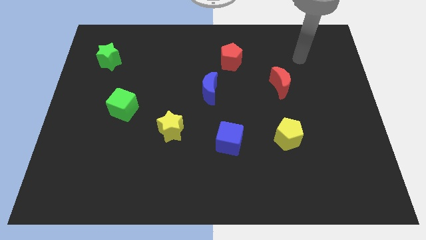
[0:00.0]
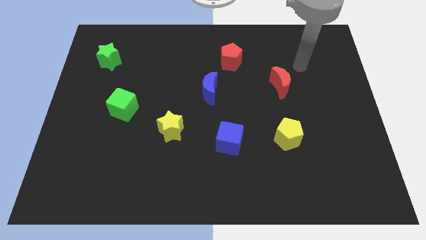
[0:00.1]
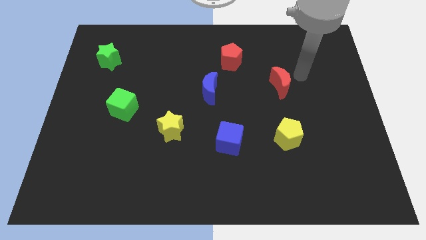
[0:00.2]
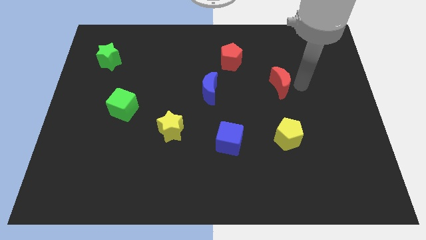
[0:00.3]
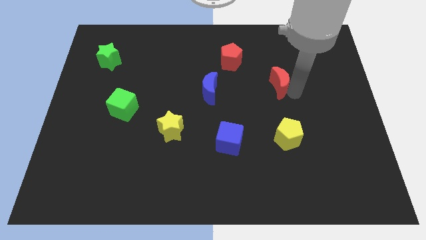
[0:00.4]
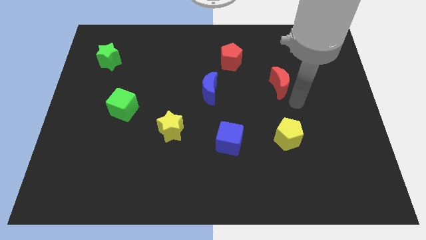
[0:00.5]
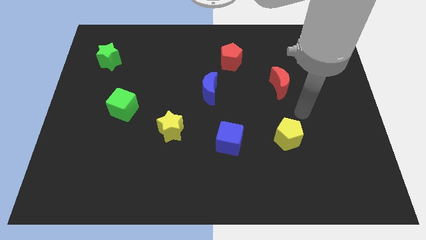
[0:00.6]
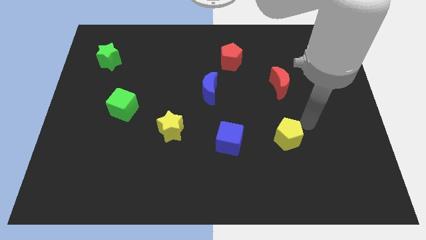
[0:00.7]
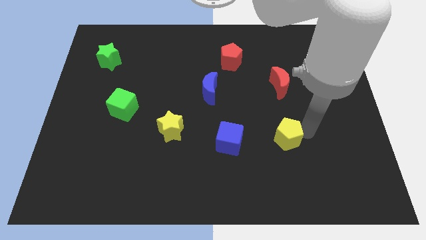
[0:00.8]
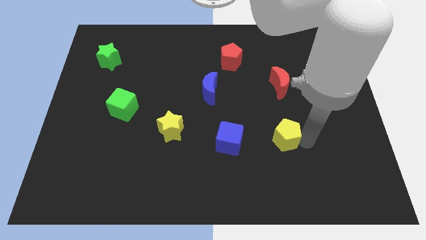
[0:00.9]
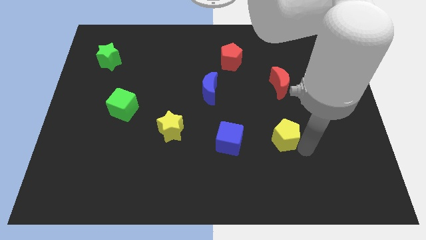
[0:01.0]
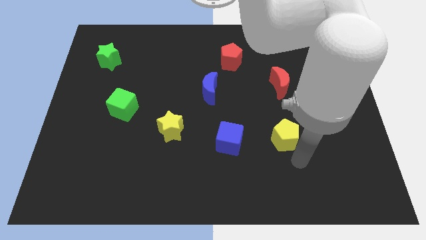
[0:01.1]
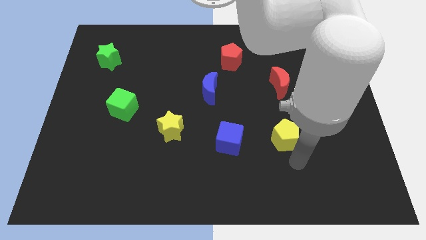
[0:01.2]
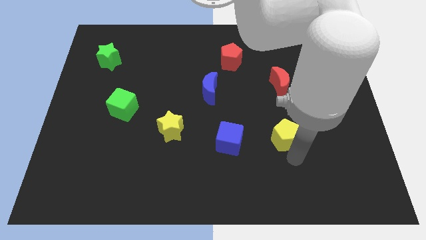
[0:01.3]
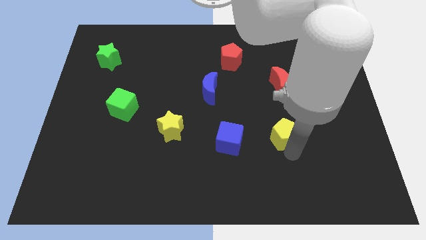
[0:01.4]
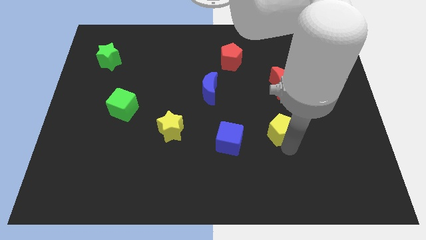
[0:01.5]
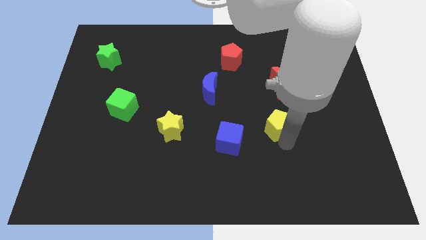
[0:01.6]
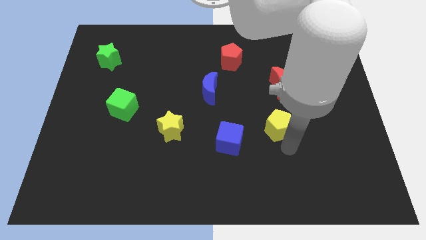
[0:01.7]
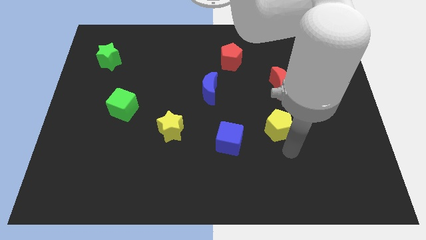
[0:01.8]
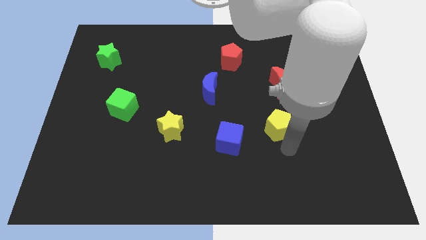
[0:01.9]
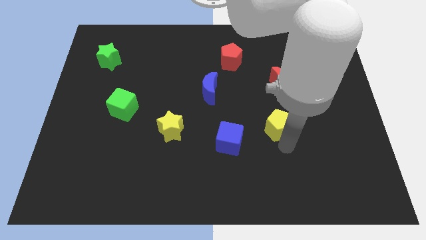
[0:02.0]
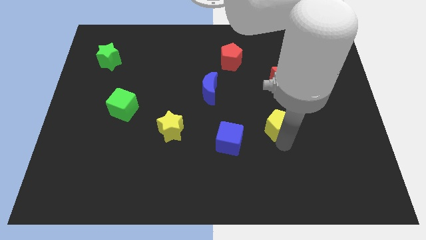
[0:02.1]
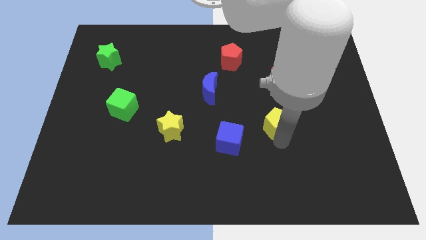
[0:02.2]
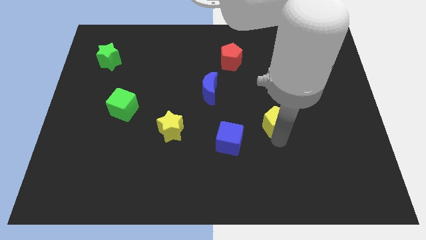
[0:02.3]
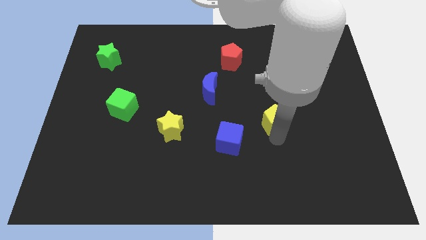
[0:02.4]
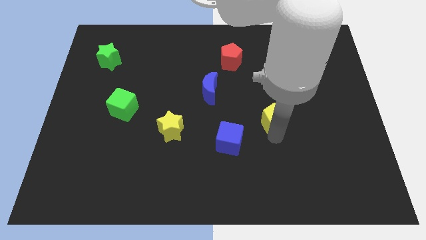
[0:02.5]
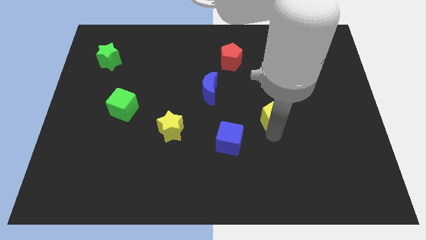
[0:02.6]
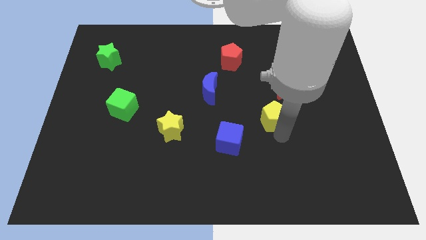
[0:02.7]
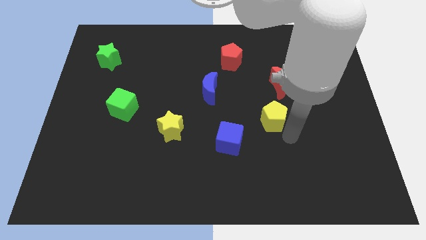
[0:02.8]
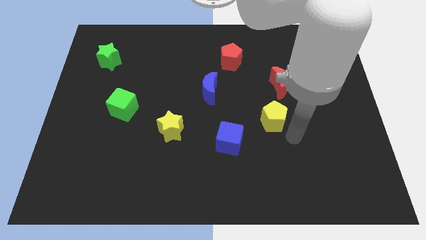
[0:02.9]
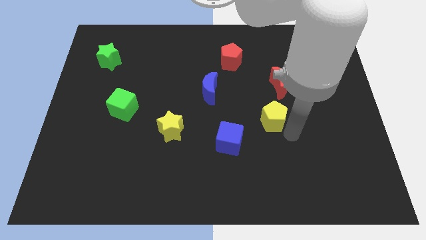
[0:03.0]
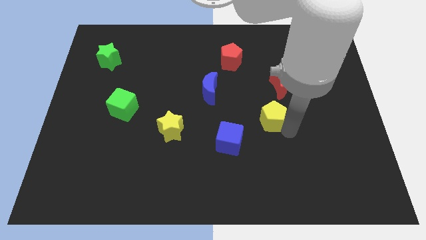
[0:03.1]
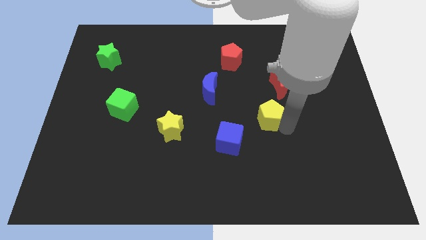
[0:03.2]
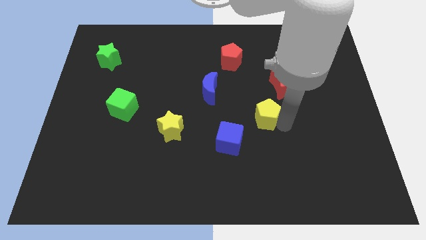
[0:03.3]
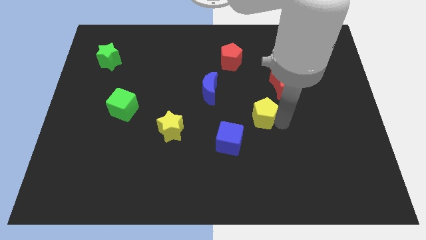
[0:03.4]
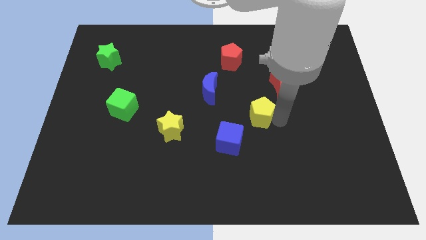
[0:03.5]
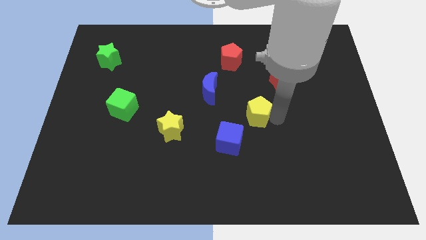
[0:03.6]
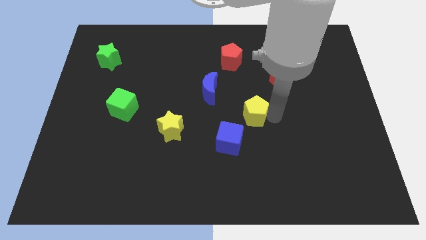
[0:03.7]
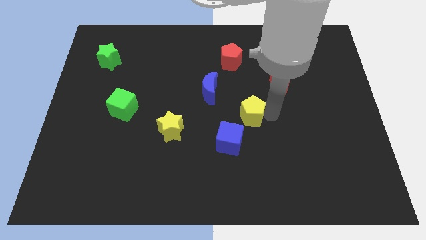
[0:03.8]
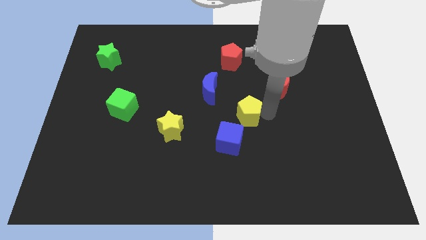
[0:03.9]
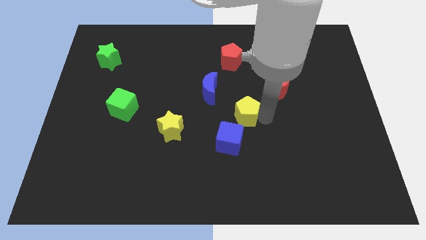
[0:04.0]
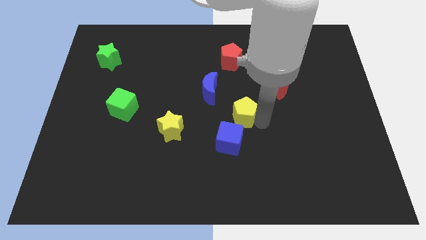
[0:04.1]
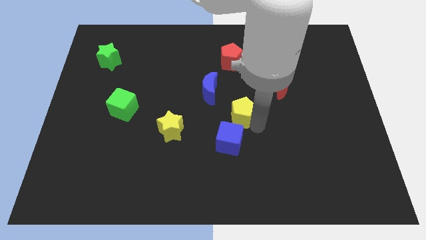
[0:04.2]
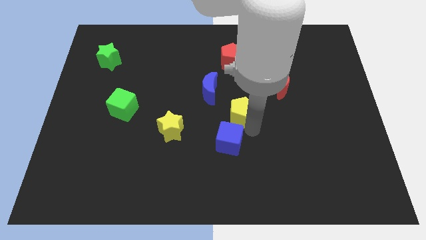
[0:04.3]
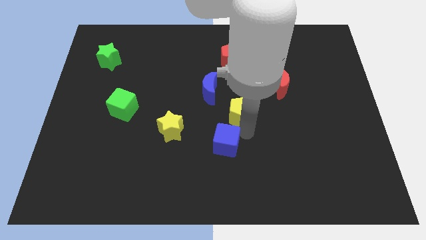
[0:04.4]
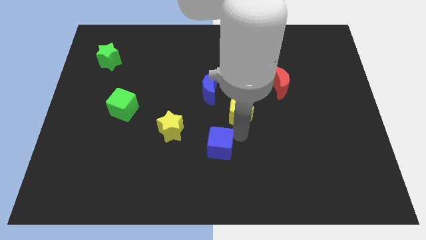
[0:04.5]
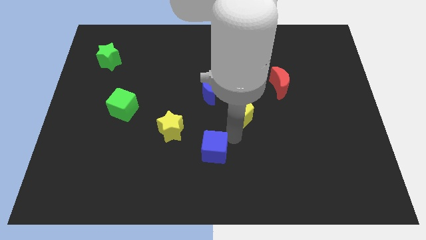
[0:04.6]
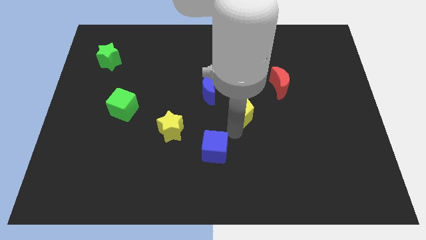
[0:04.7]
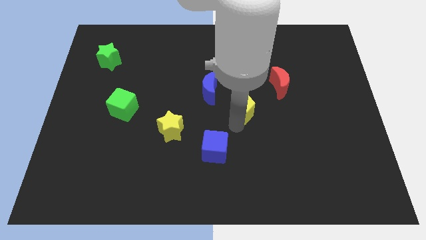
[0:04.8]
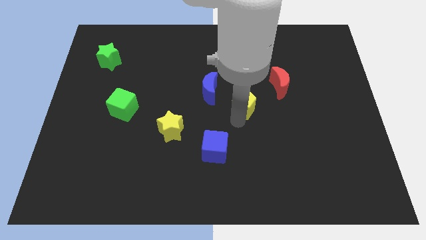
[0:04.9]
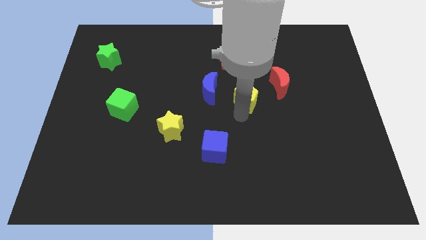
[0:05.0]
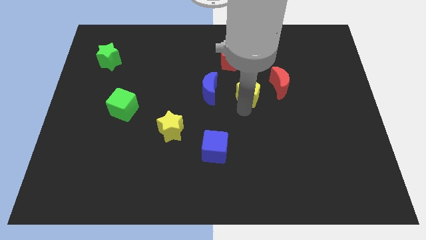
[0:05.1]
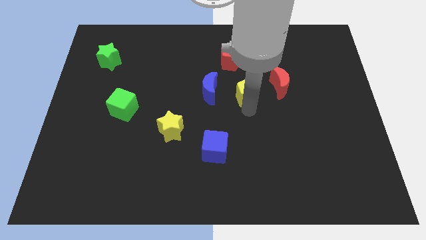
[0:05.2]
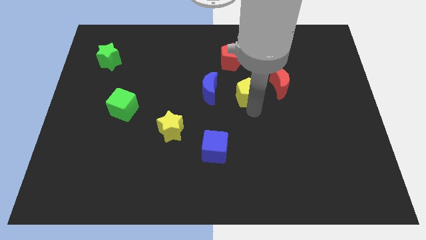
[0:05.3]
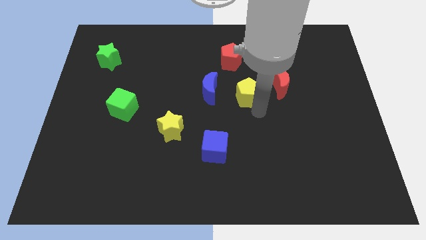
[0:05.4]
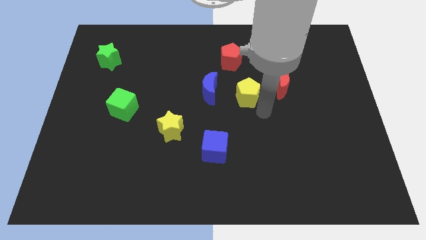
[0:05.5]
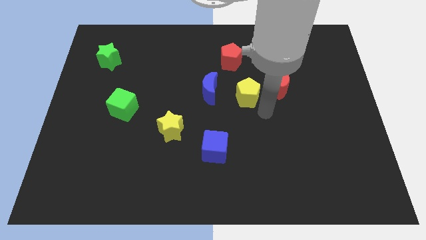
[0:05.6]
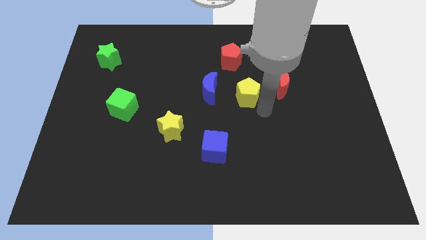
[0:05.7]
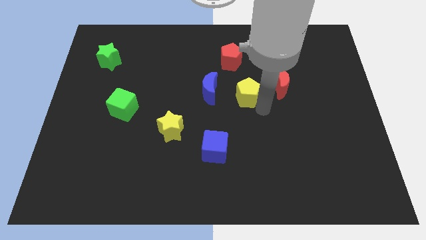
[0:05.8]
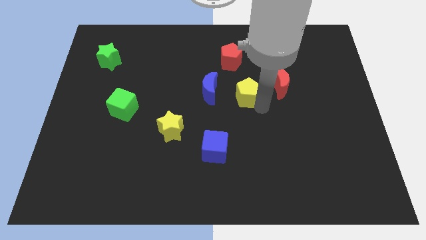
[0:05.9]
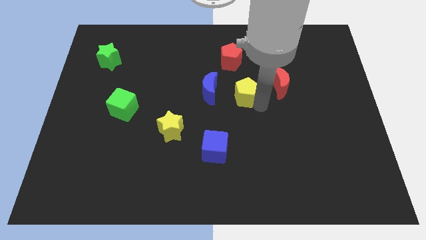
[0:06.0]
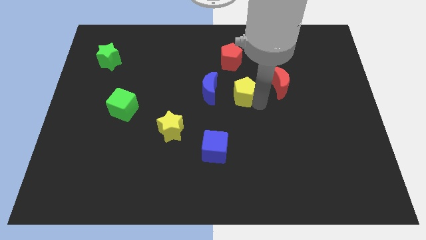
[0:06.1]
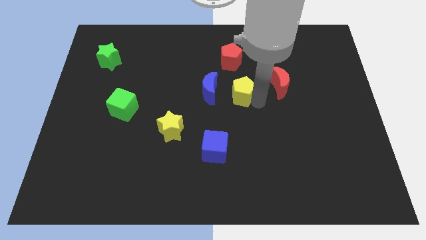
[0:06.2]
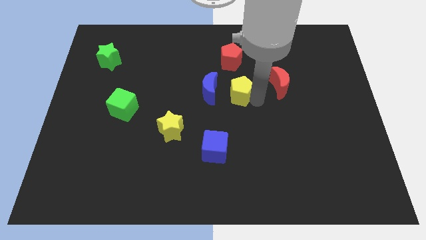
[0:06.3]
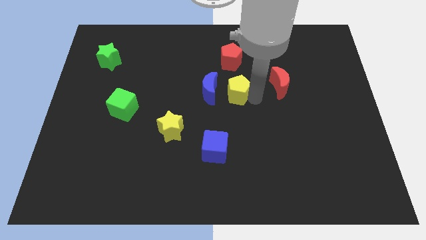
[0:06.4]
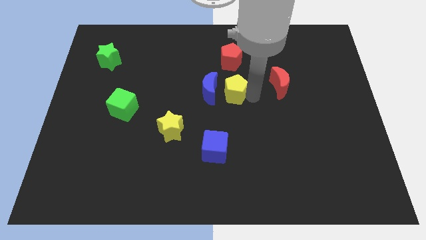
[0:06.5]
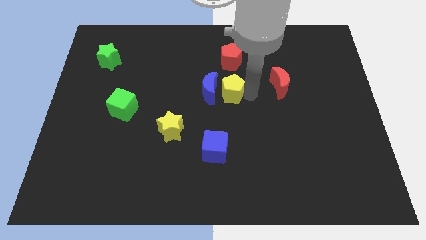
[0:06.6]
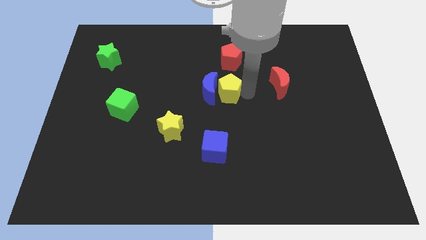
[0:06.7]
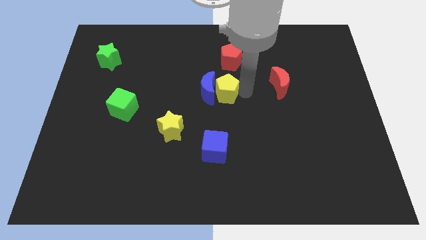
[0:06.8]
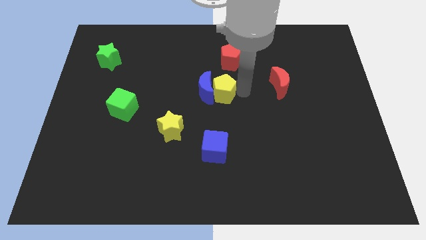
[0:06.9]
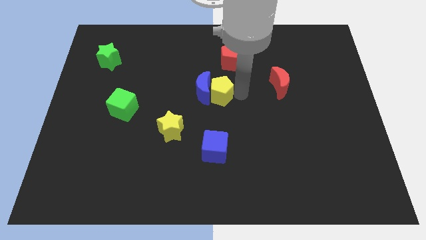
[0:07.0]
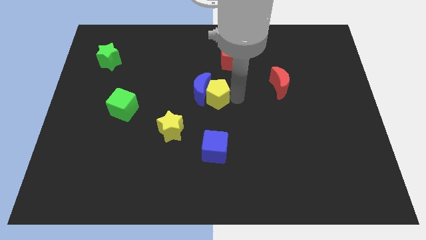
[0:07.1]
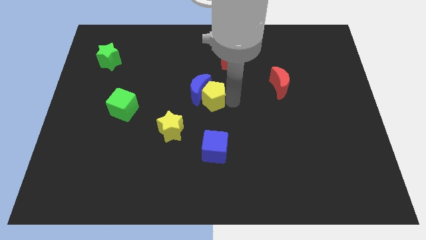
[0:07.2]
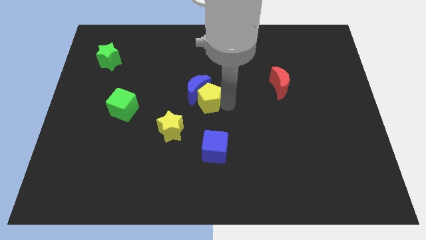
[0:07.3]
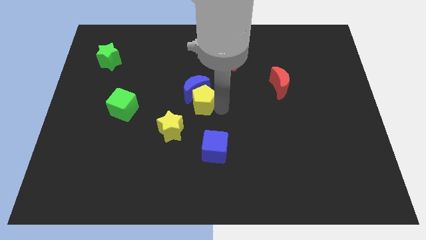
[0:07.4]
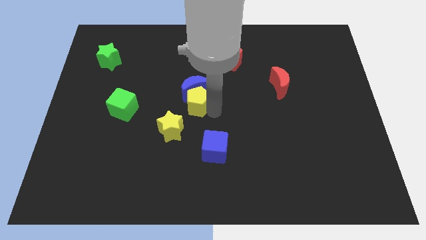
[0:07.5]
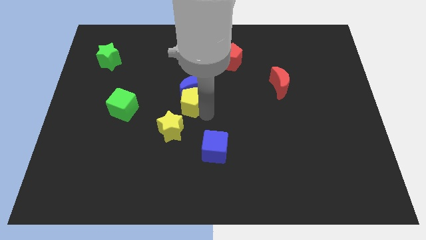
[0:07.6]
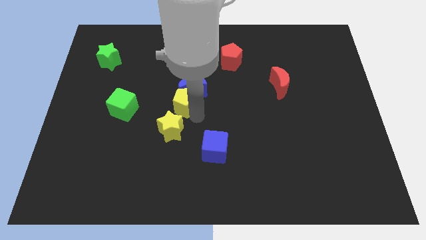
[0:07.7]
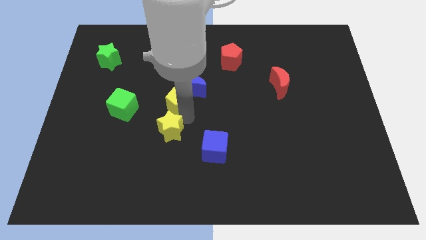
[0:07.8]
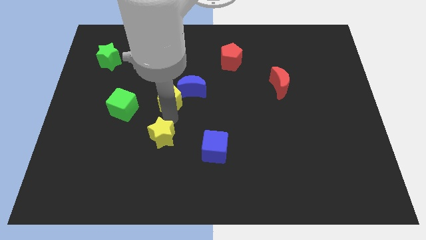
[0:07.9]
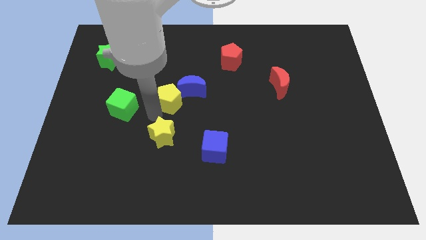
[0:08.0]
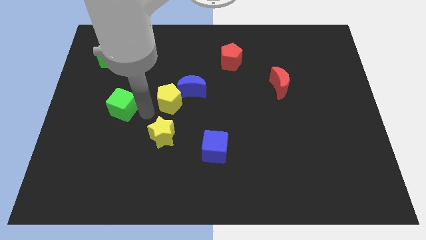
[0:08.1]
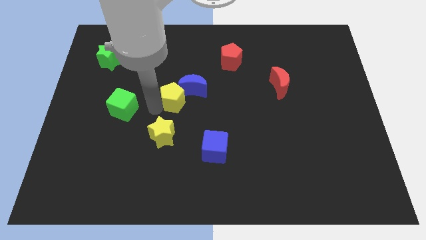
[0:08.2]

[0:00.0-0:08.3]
move the yellow pentagon upwards and left diagonally
